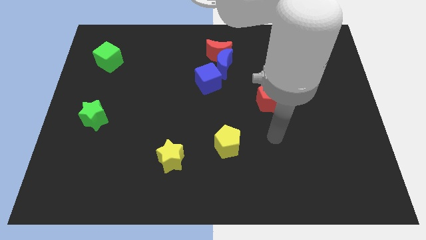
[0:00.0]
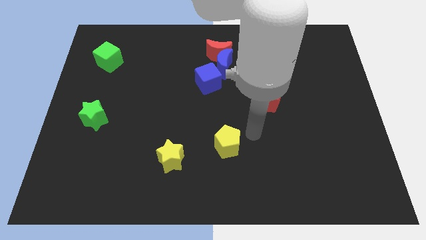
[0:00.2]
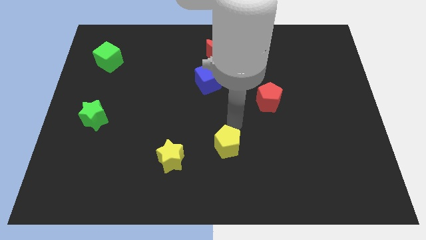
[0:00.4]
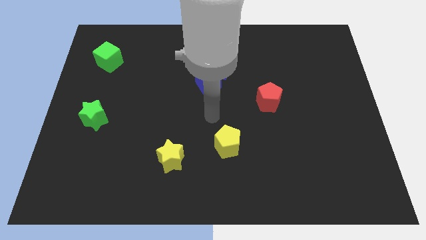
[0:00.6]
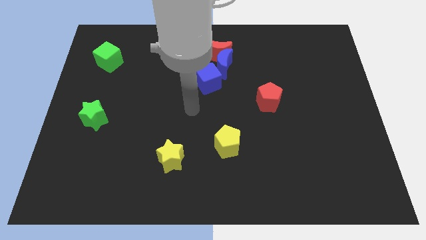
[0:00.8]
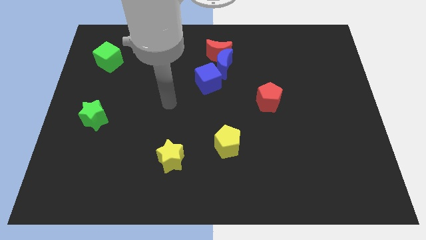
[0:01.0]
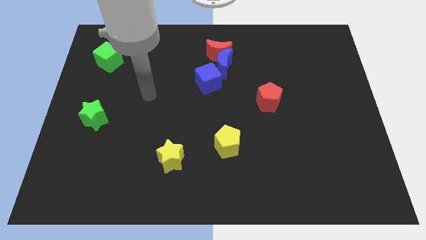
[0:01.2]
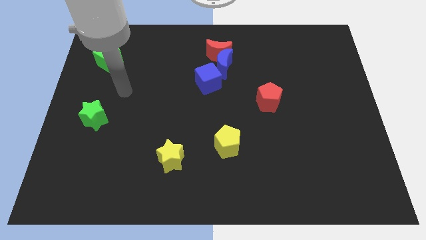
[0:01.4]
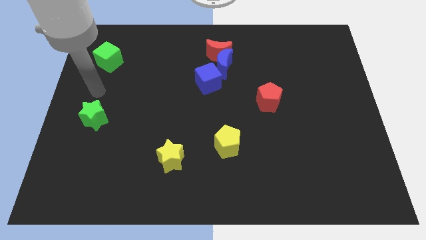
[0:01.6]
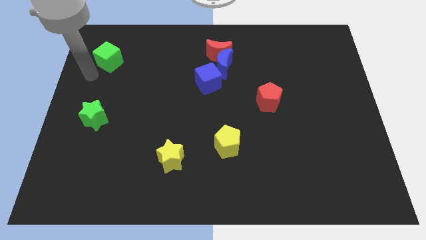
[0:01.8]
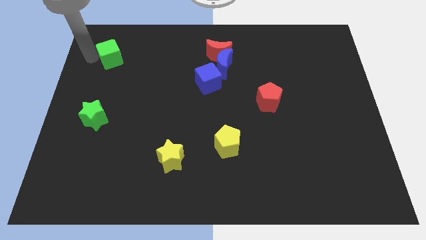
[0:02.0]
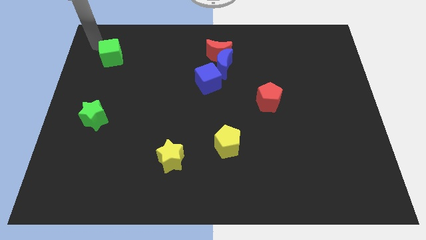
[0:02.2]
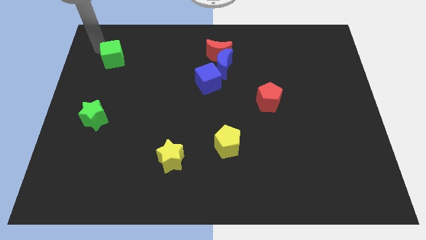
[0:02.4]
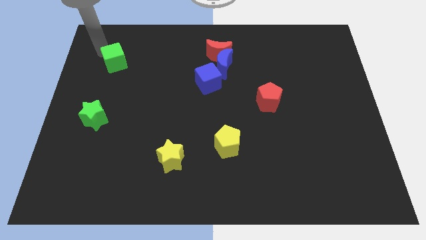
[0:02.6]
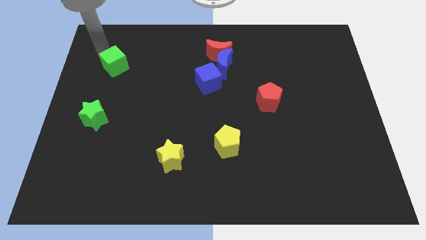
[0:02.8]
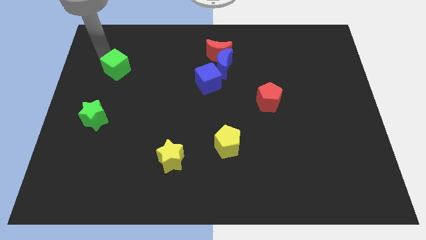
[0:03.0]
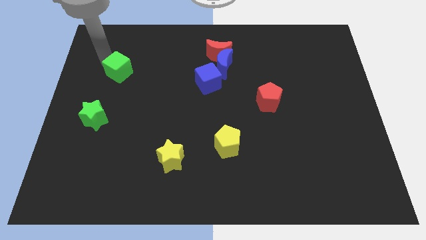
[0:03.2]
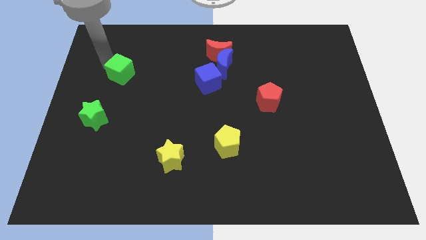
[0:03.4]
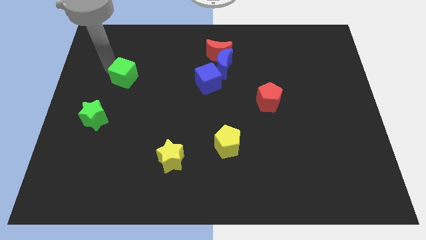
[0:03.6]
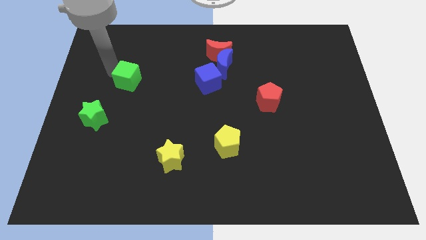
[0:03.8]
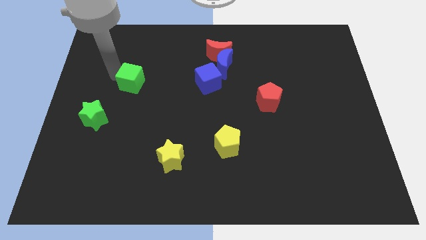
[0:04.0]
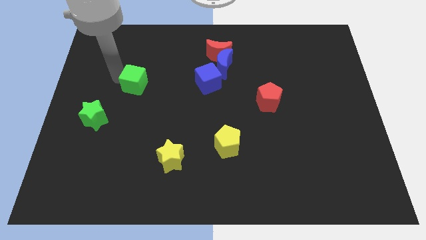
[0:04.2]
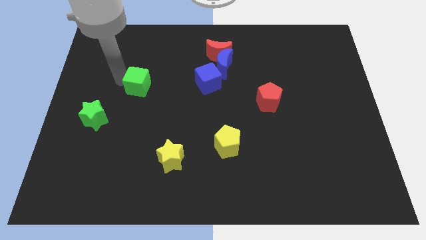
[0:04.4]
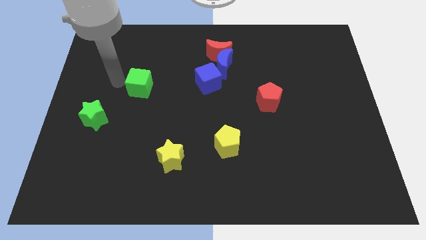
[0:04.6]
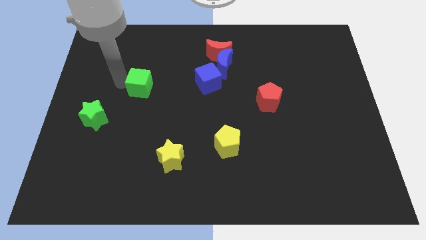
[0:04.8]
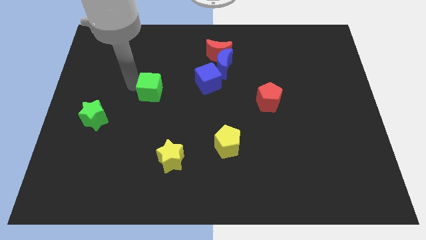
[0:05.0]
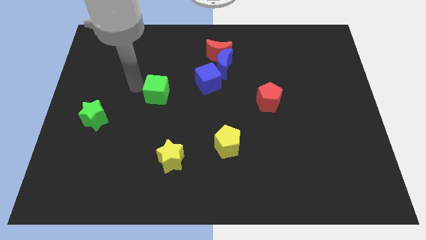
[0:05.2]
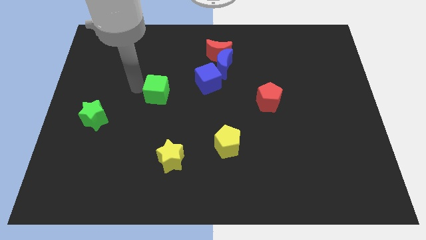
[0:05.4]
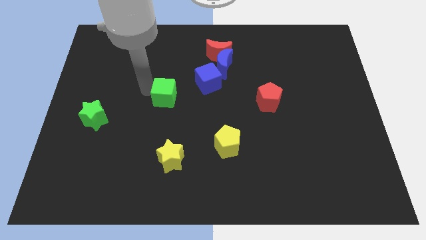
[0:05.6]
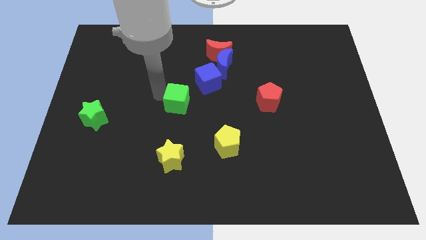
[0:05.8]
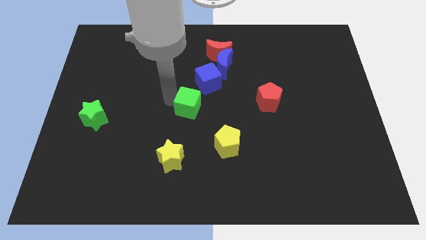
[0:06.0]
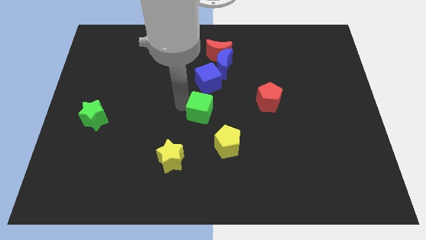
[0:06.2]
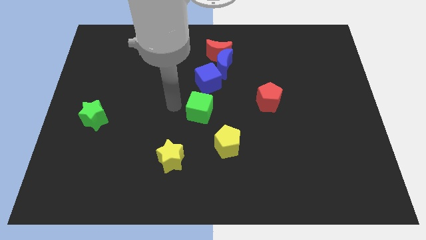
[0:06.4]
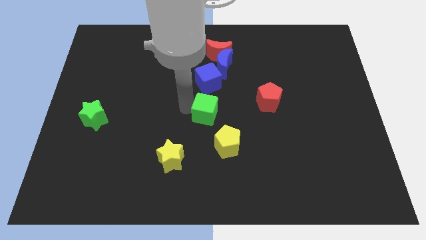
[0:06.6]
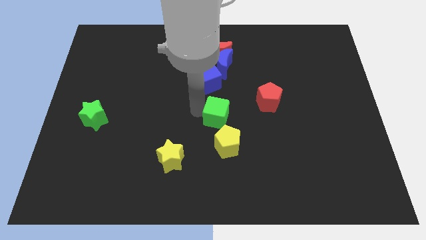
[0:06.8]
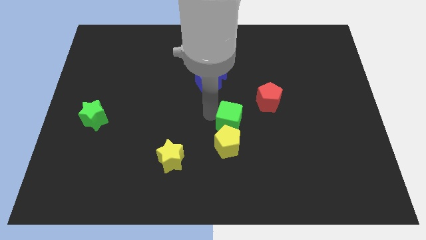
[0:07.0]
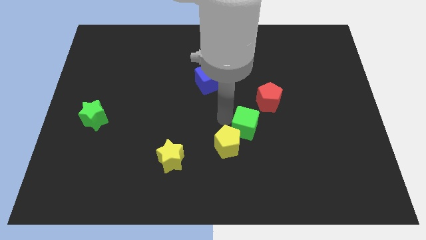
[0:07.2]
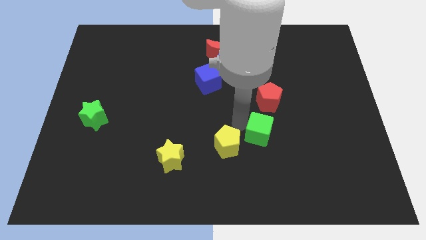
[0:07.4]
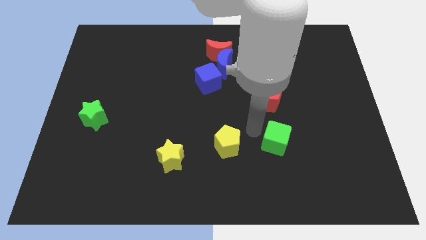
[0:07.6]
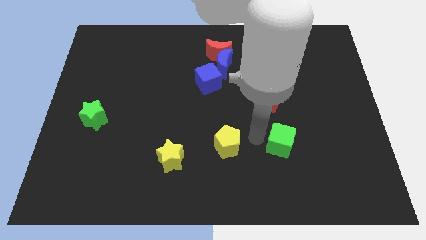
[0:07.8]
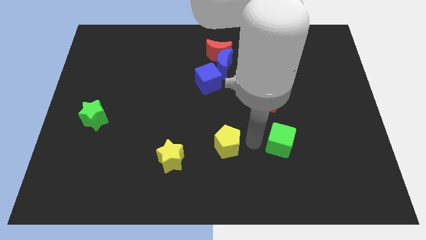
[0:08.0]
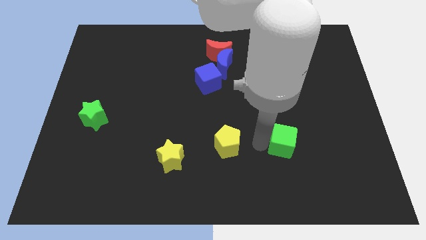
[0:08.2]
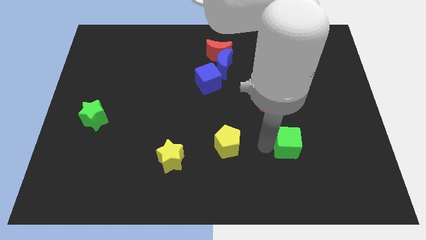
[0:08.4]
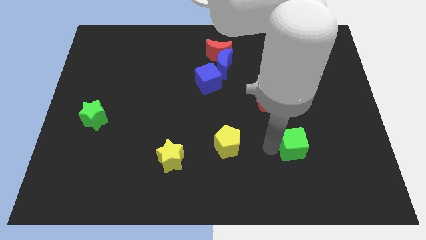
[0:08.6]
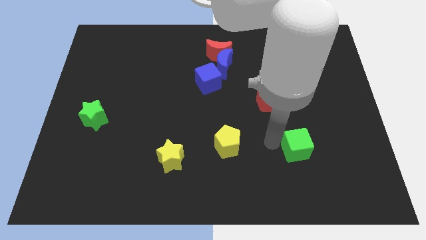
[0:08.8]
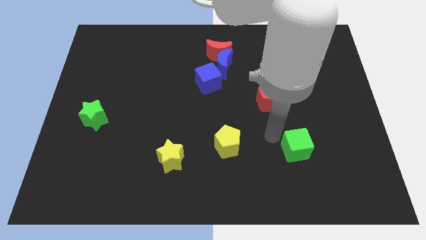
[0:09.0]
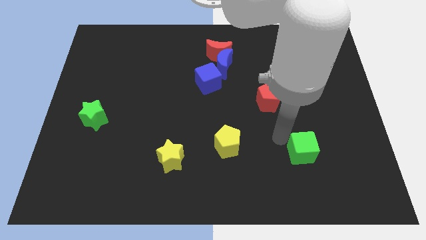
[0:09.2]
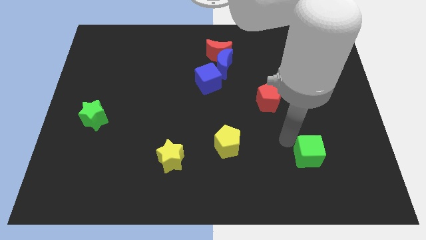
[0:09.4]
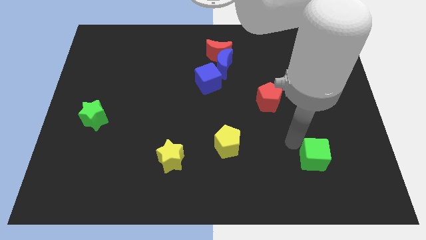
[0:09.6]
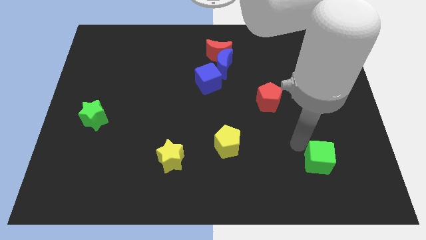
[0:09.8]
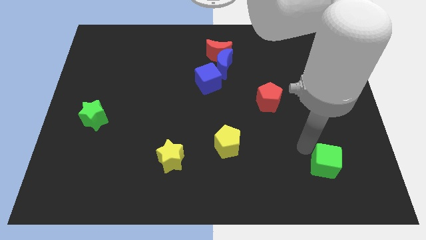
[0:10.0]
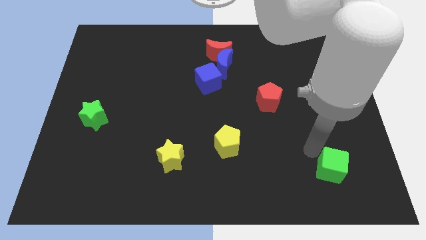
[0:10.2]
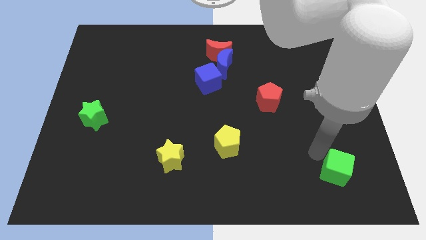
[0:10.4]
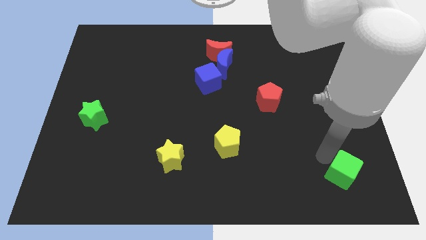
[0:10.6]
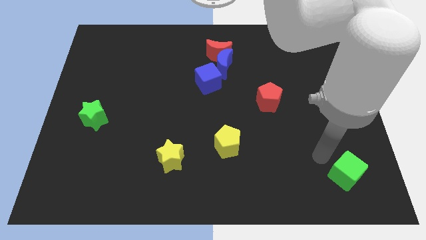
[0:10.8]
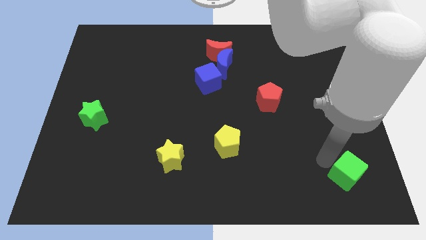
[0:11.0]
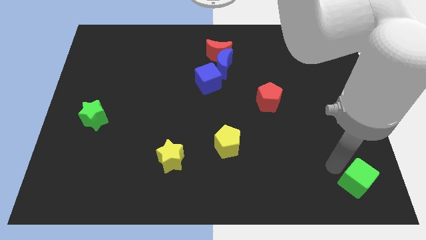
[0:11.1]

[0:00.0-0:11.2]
slide the green cube to the bottom right of the board

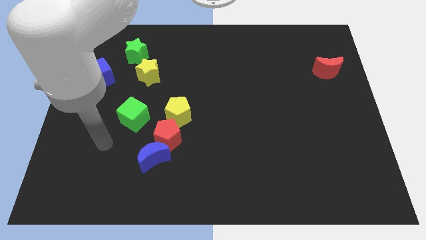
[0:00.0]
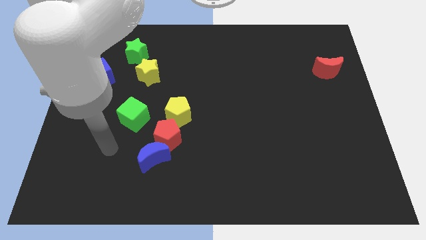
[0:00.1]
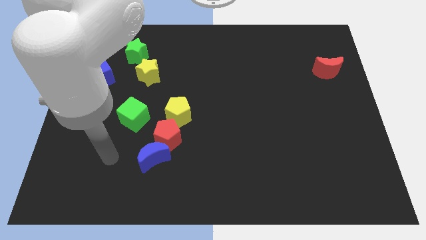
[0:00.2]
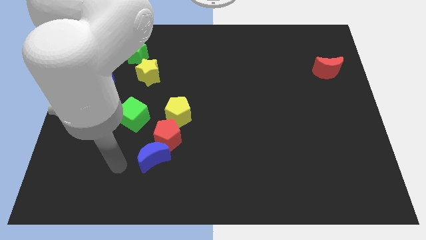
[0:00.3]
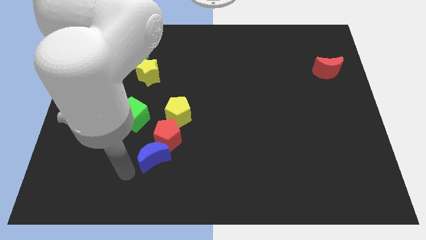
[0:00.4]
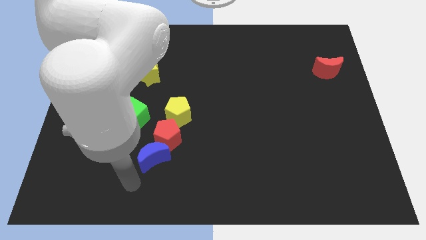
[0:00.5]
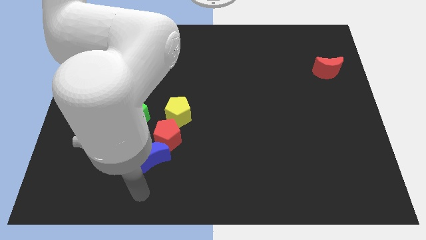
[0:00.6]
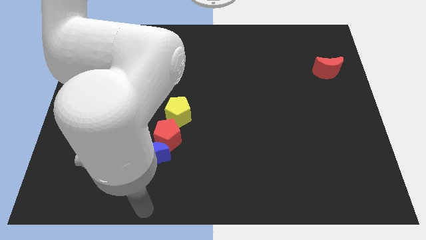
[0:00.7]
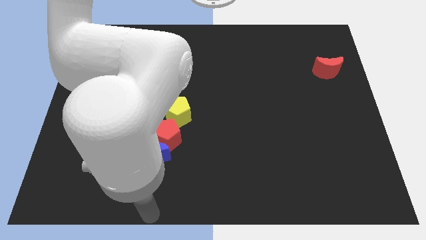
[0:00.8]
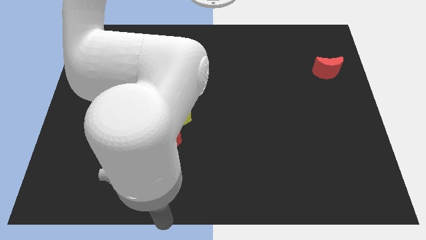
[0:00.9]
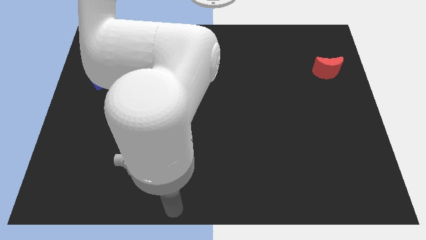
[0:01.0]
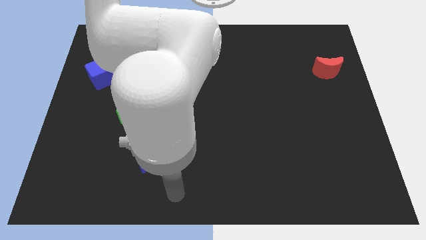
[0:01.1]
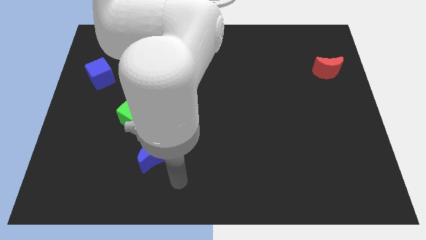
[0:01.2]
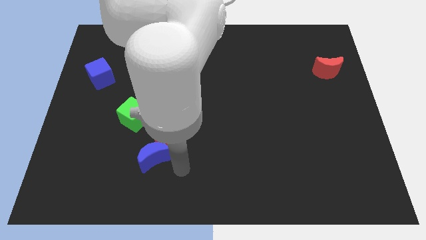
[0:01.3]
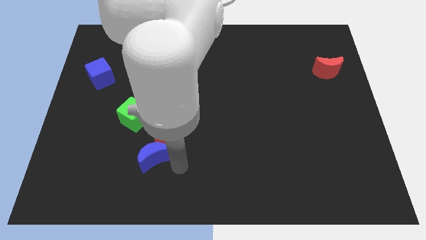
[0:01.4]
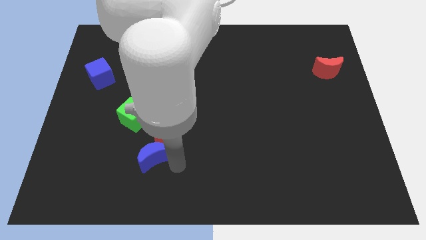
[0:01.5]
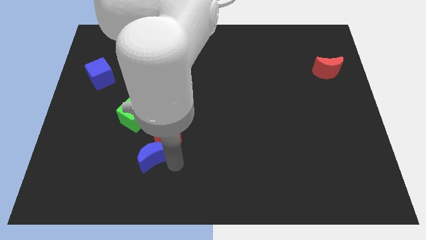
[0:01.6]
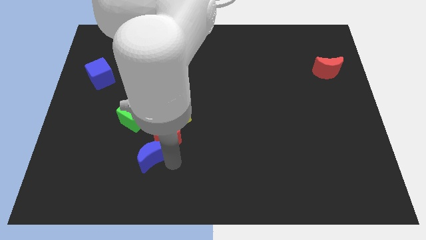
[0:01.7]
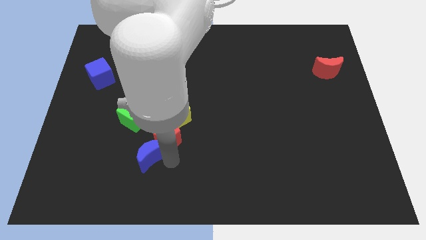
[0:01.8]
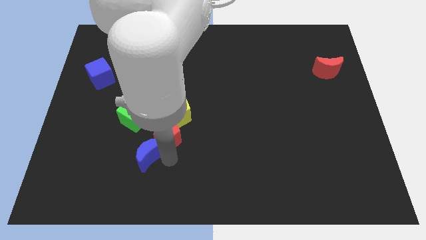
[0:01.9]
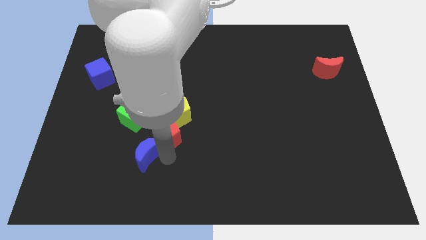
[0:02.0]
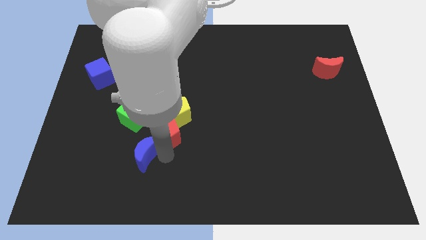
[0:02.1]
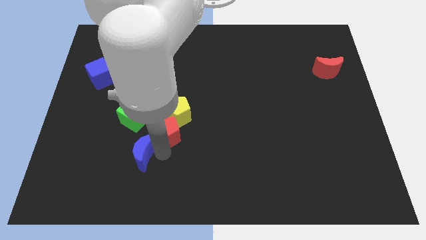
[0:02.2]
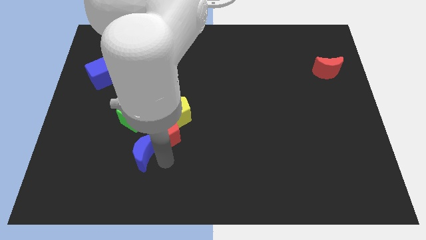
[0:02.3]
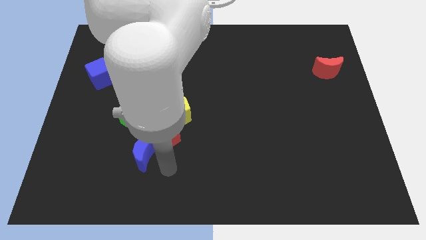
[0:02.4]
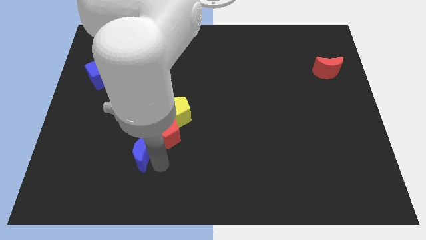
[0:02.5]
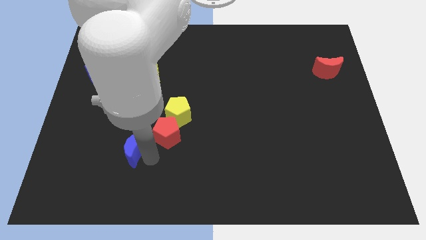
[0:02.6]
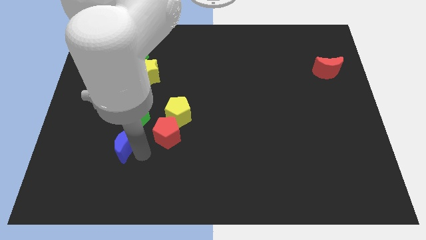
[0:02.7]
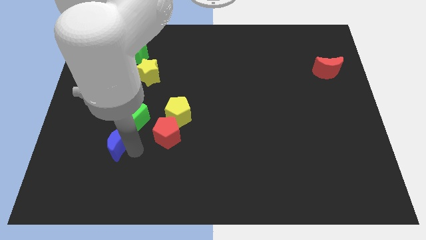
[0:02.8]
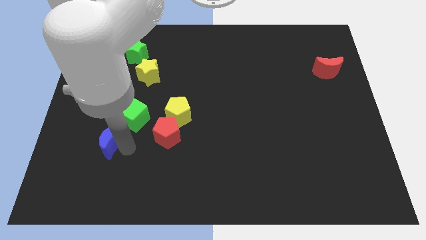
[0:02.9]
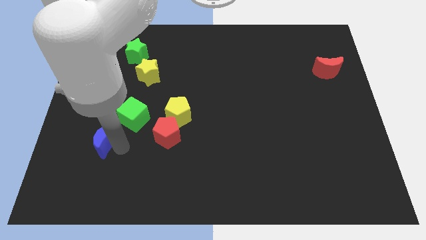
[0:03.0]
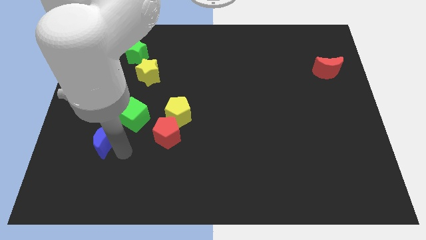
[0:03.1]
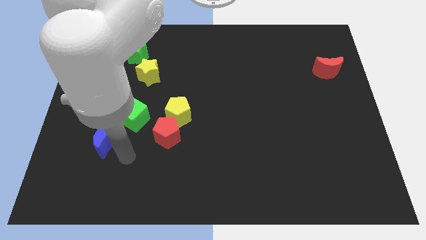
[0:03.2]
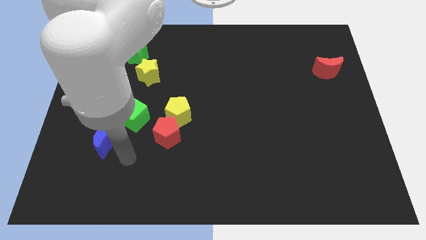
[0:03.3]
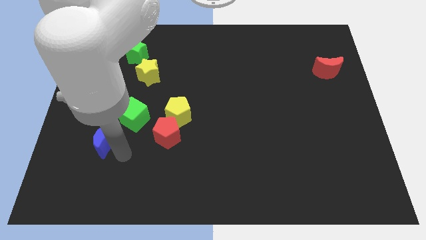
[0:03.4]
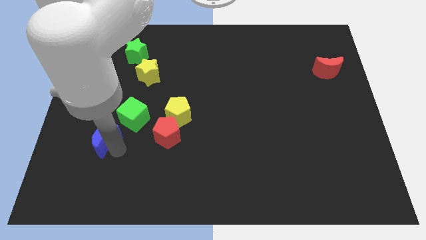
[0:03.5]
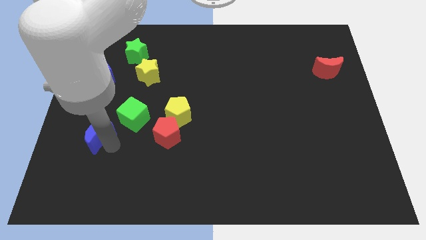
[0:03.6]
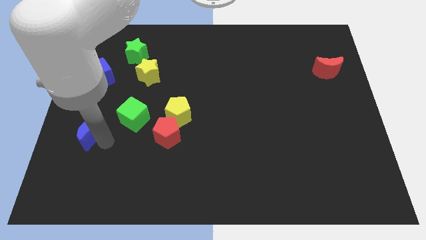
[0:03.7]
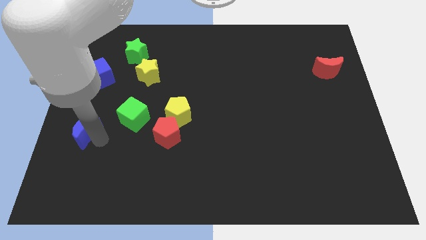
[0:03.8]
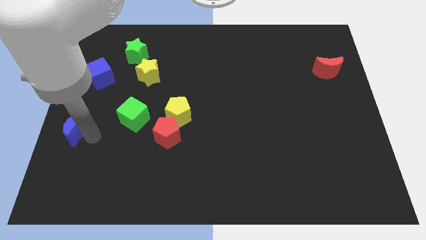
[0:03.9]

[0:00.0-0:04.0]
push the blue moon to the left side
